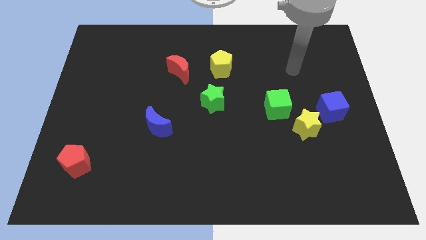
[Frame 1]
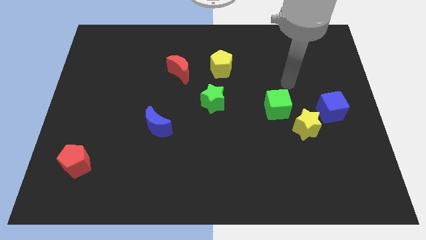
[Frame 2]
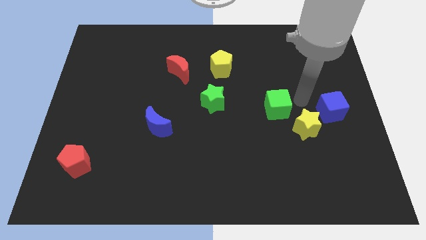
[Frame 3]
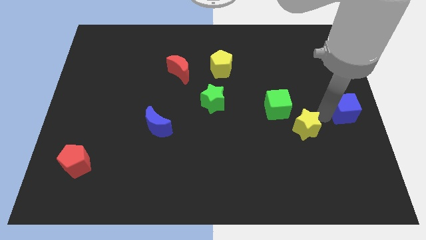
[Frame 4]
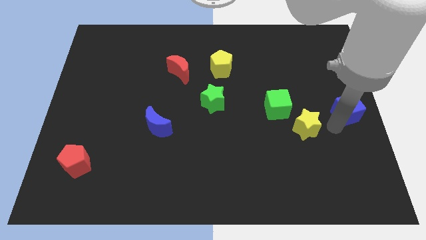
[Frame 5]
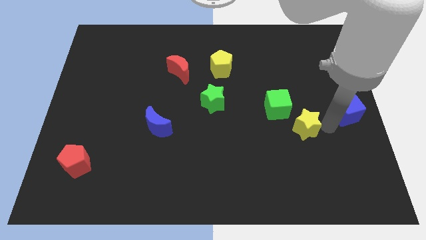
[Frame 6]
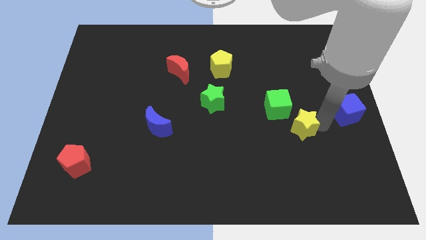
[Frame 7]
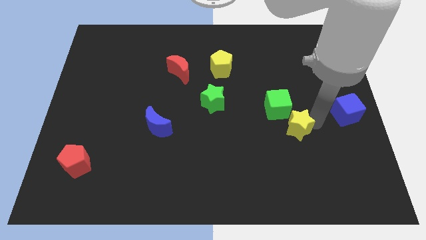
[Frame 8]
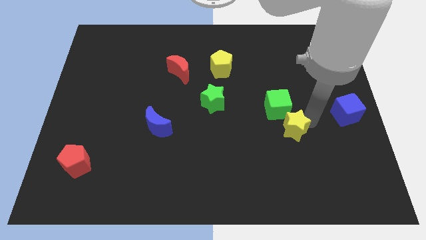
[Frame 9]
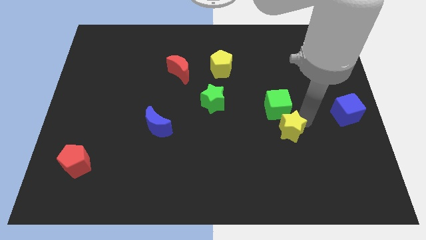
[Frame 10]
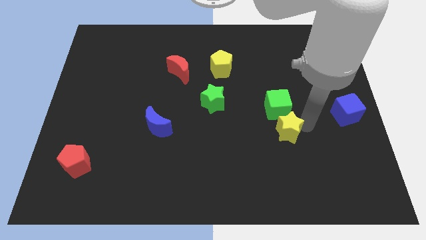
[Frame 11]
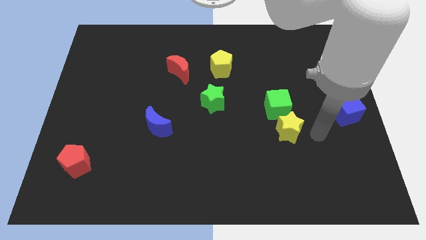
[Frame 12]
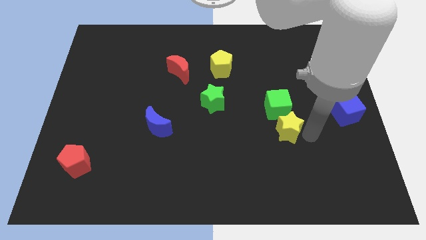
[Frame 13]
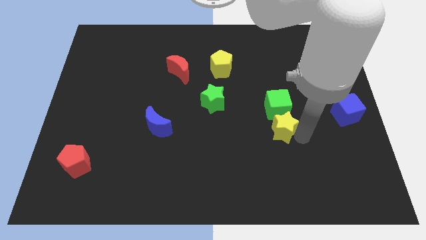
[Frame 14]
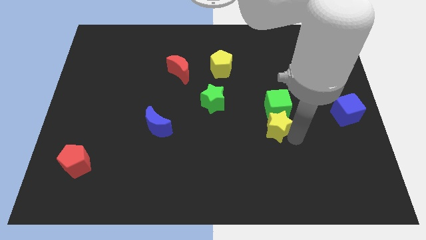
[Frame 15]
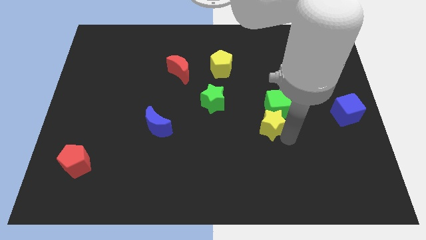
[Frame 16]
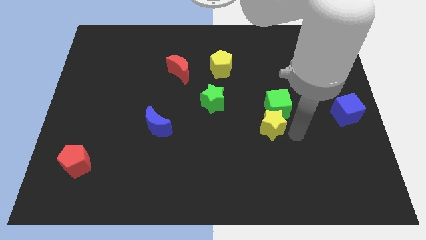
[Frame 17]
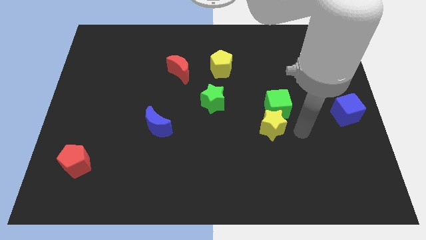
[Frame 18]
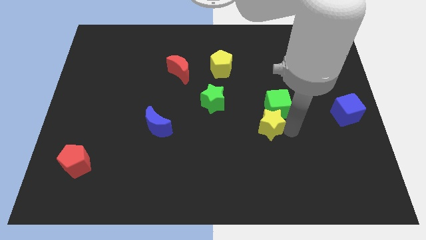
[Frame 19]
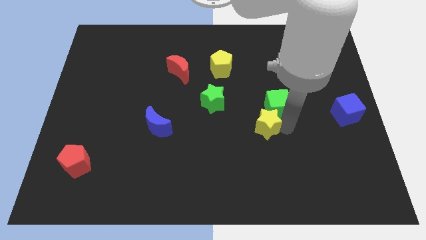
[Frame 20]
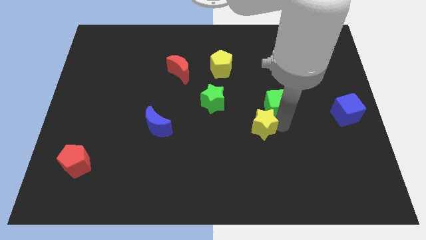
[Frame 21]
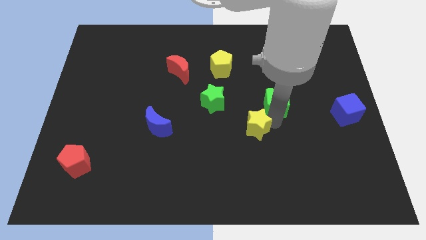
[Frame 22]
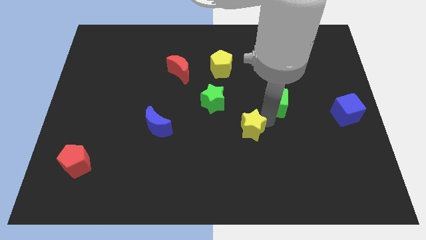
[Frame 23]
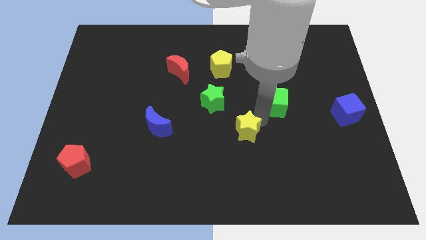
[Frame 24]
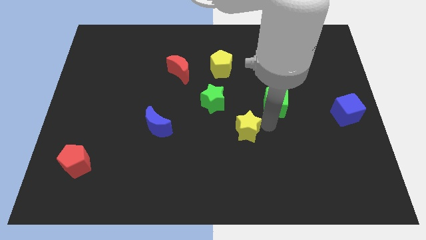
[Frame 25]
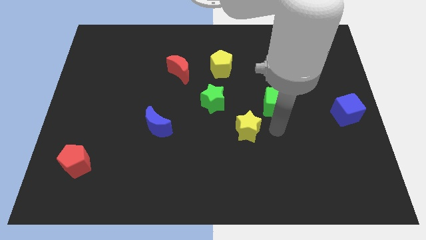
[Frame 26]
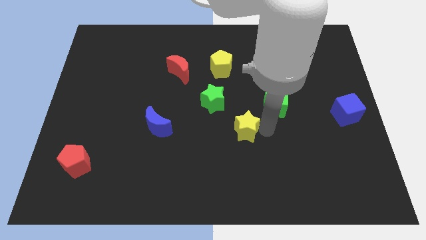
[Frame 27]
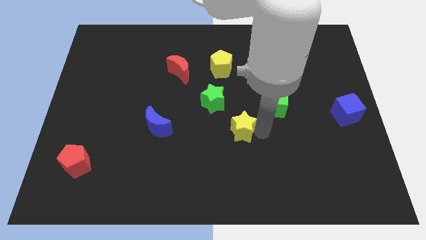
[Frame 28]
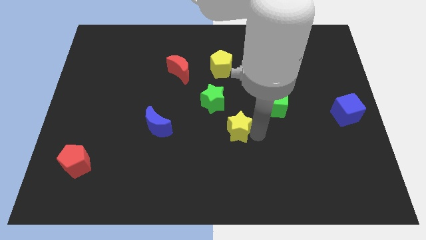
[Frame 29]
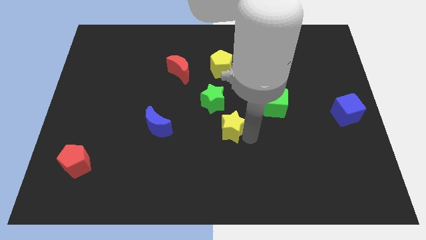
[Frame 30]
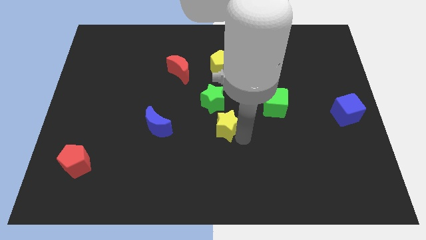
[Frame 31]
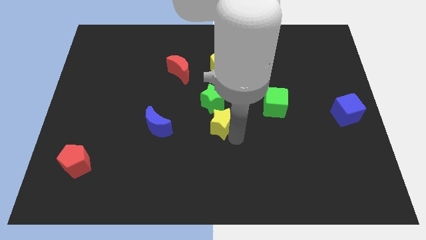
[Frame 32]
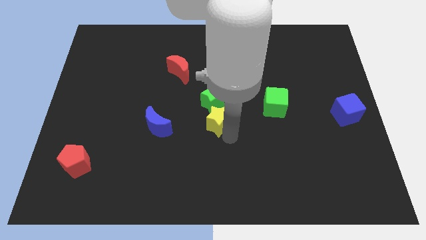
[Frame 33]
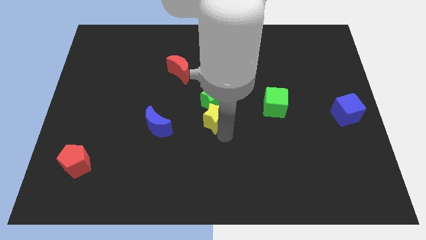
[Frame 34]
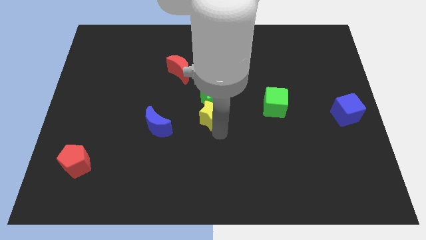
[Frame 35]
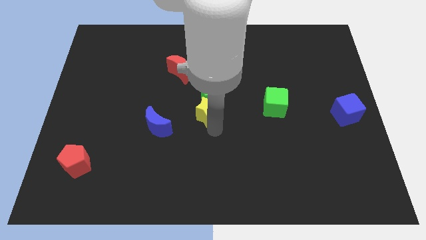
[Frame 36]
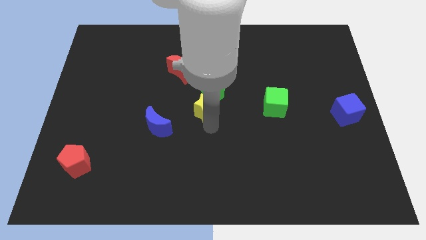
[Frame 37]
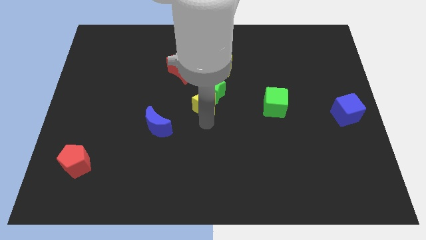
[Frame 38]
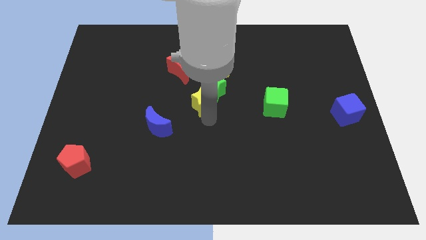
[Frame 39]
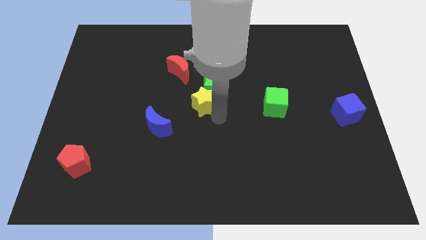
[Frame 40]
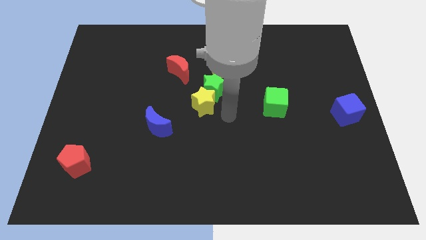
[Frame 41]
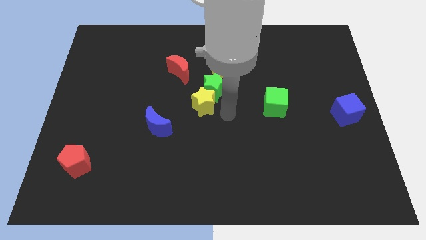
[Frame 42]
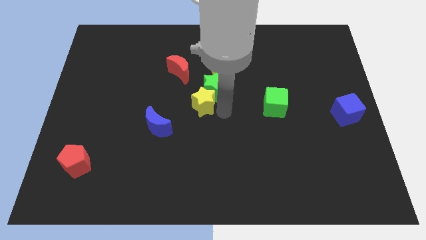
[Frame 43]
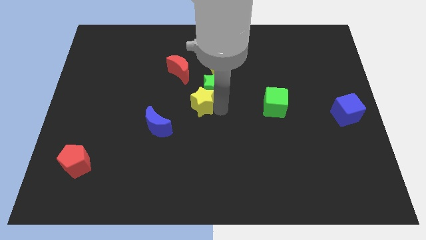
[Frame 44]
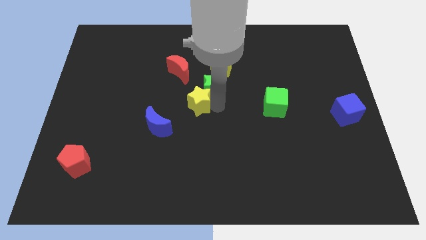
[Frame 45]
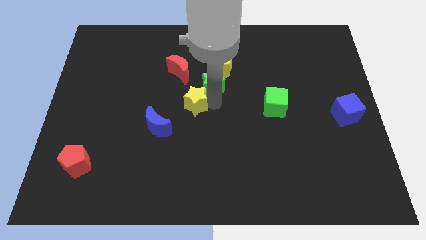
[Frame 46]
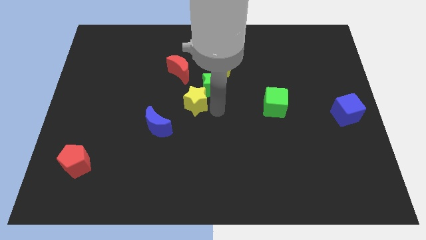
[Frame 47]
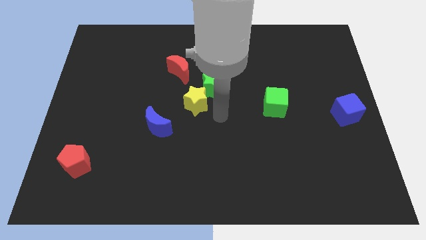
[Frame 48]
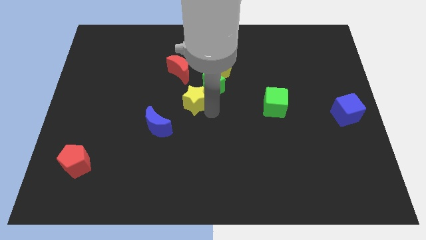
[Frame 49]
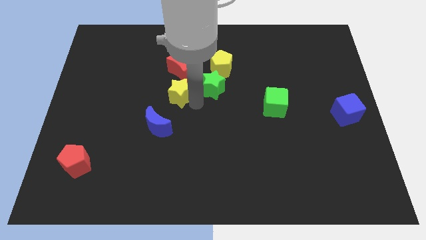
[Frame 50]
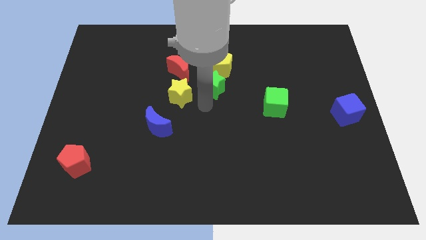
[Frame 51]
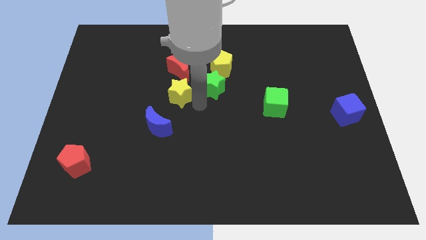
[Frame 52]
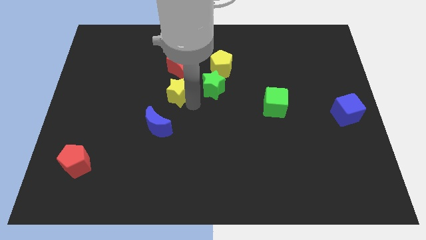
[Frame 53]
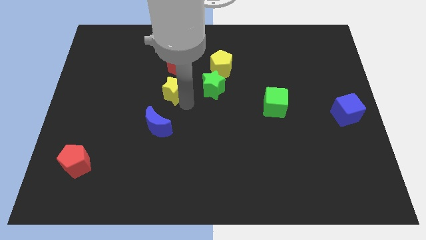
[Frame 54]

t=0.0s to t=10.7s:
move the yellow star diagonally down and to the left of the red moon
